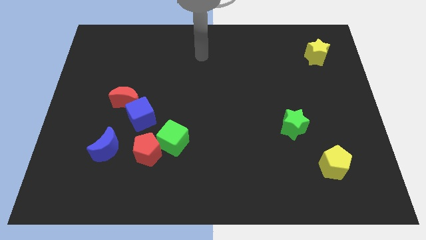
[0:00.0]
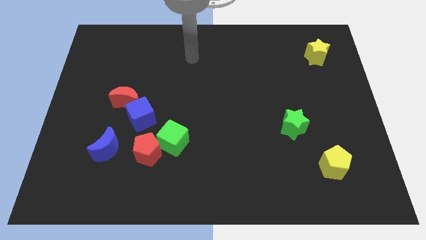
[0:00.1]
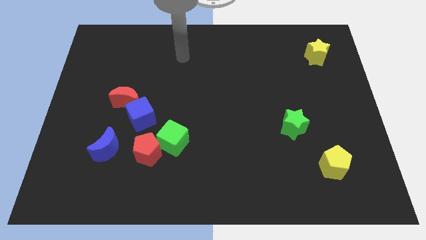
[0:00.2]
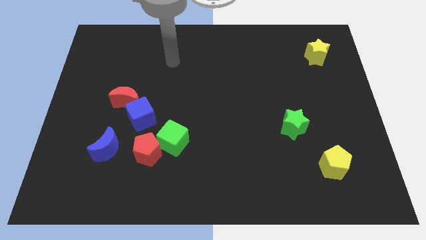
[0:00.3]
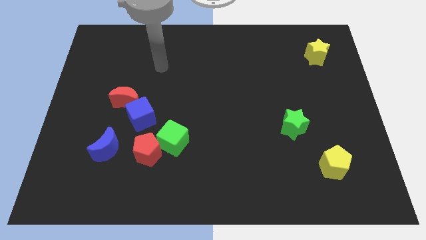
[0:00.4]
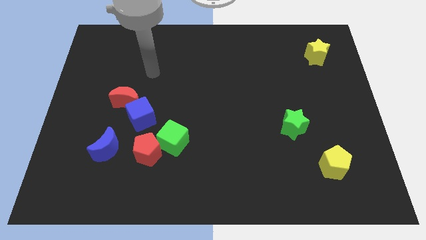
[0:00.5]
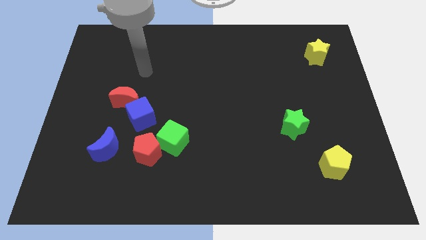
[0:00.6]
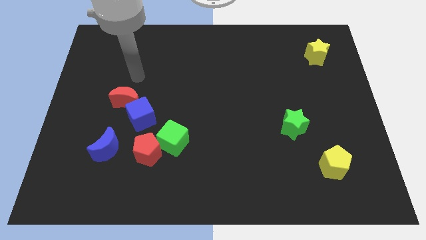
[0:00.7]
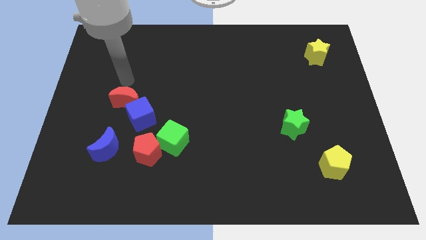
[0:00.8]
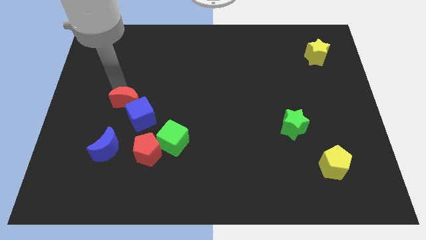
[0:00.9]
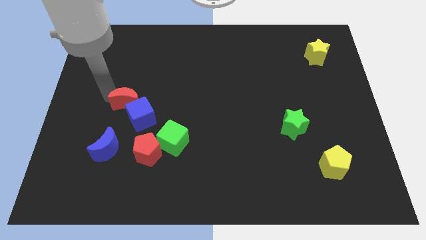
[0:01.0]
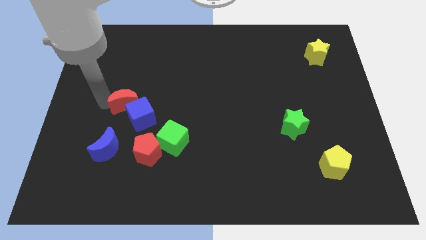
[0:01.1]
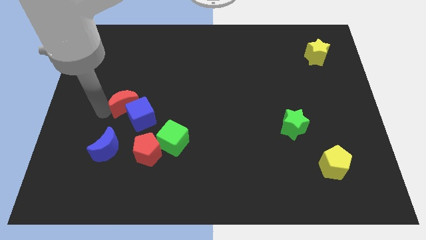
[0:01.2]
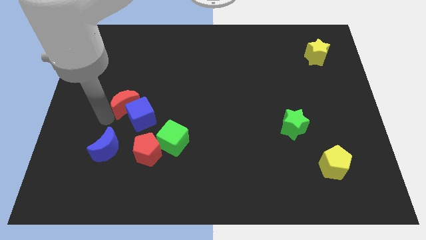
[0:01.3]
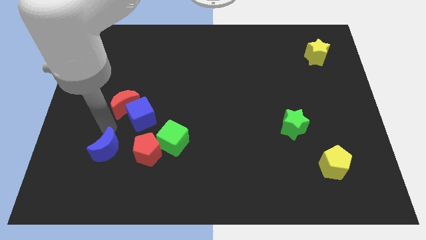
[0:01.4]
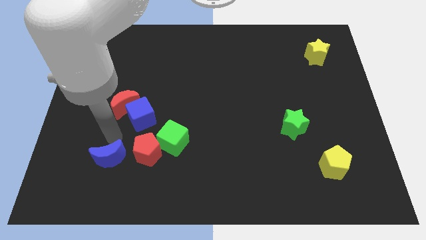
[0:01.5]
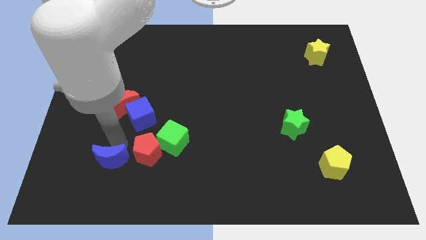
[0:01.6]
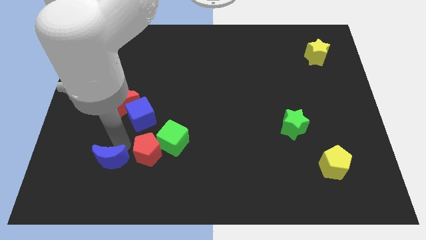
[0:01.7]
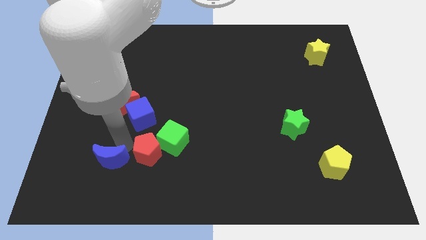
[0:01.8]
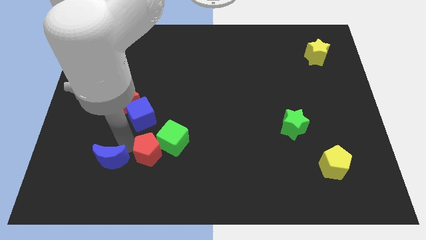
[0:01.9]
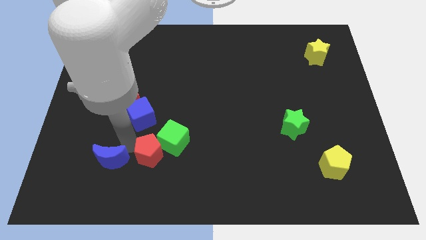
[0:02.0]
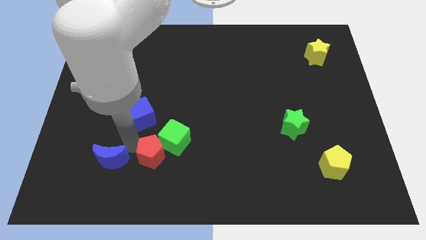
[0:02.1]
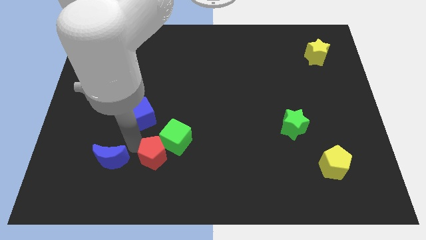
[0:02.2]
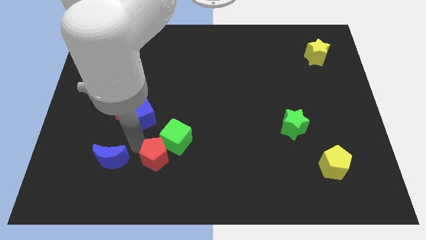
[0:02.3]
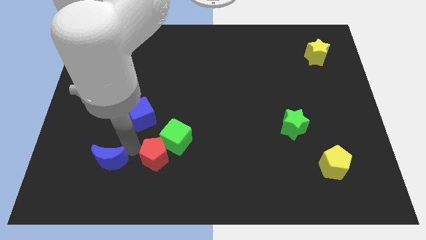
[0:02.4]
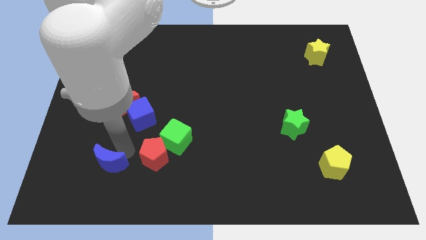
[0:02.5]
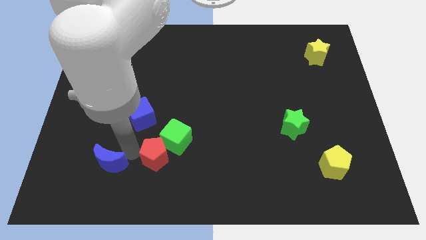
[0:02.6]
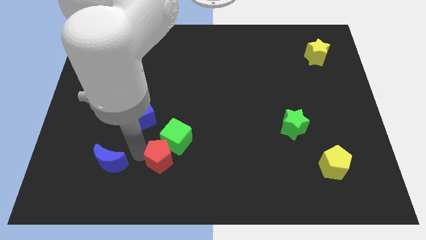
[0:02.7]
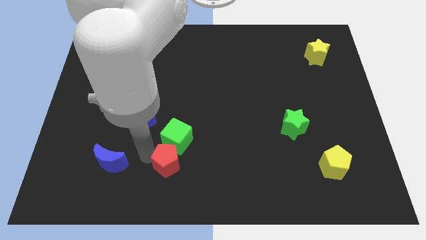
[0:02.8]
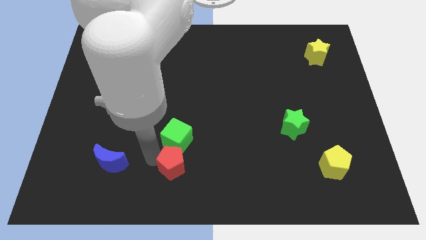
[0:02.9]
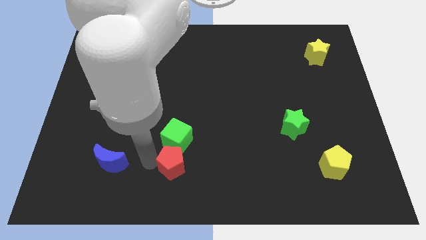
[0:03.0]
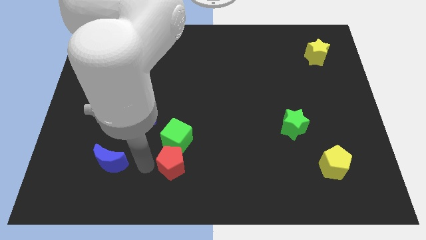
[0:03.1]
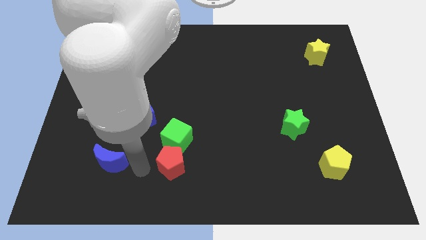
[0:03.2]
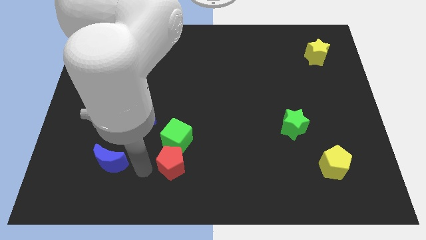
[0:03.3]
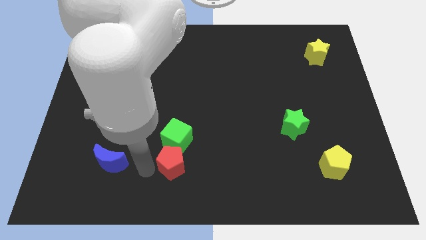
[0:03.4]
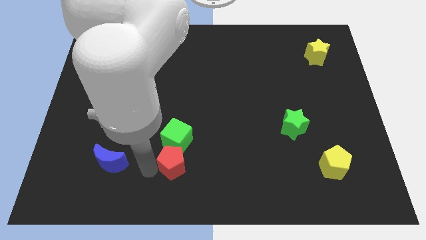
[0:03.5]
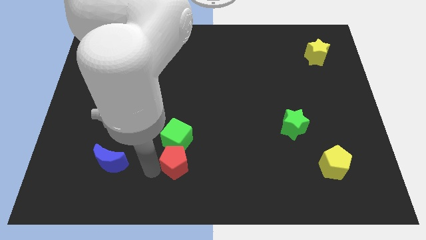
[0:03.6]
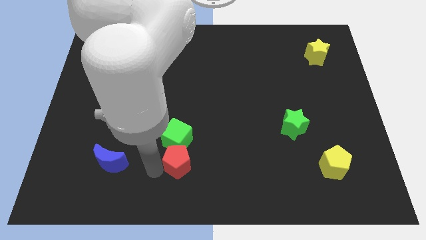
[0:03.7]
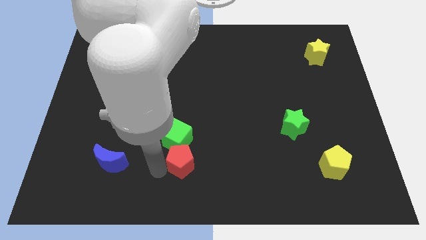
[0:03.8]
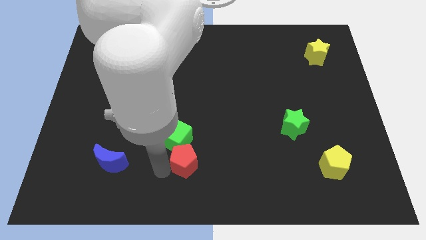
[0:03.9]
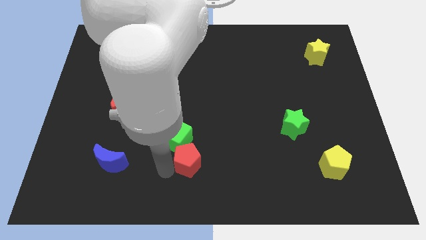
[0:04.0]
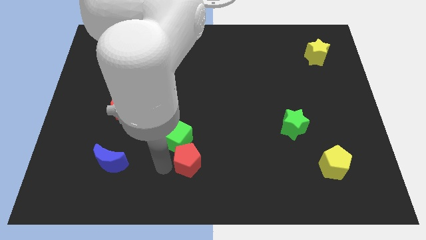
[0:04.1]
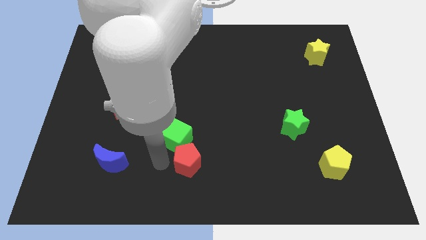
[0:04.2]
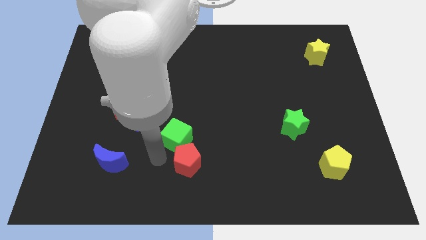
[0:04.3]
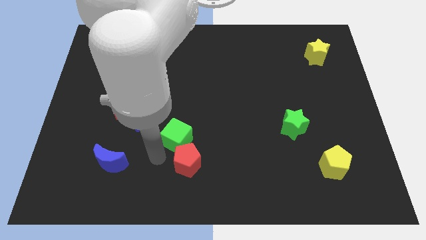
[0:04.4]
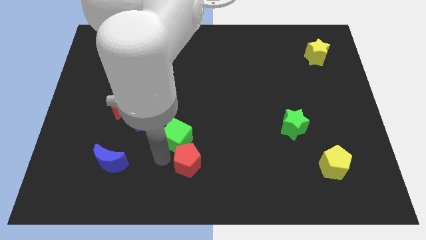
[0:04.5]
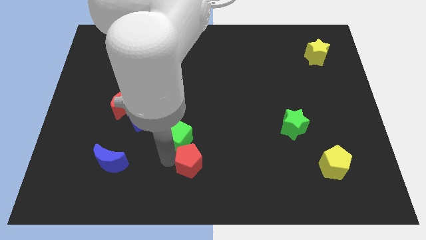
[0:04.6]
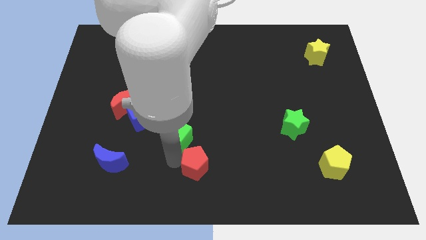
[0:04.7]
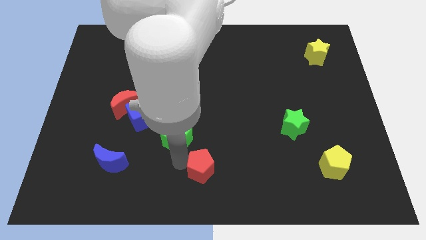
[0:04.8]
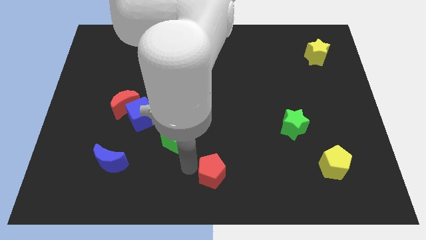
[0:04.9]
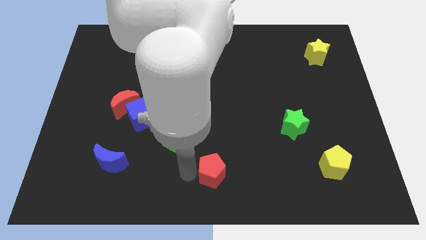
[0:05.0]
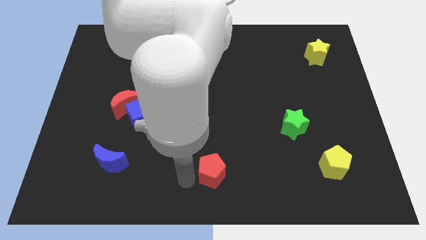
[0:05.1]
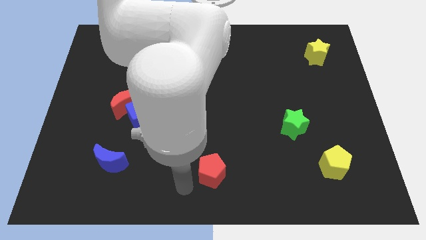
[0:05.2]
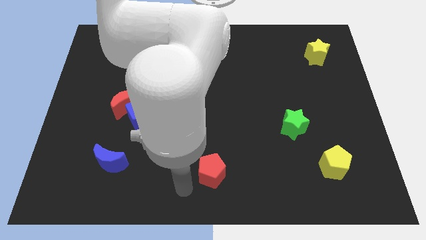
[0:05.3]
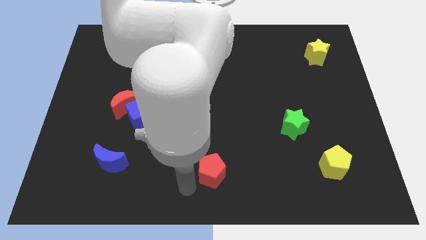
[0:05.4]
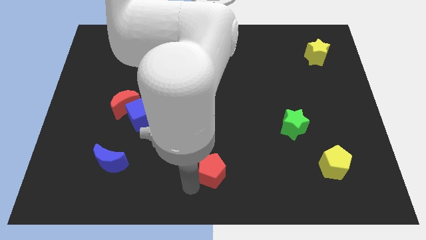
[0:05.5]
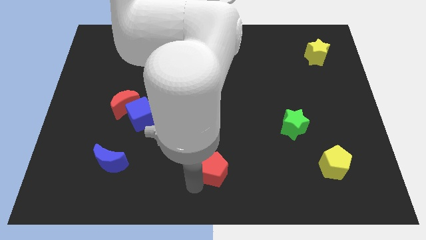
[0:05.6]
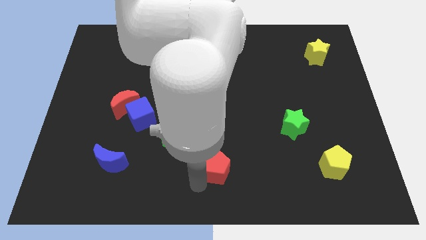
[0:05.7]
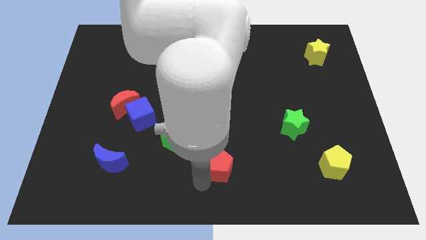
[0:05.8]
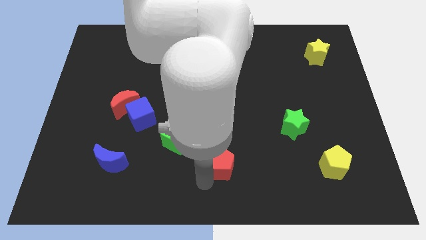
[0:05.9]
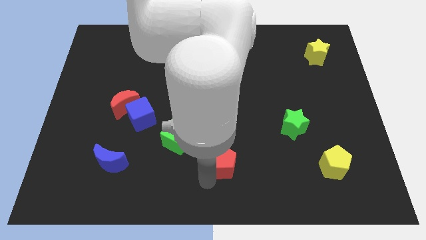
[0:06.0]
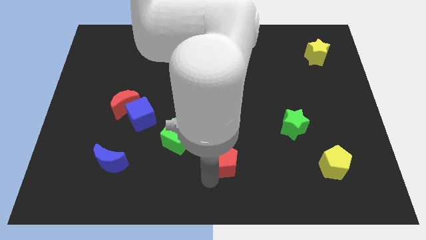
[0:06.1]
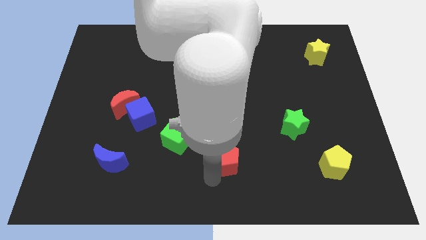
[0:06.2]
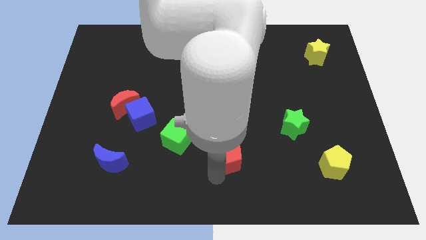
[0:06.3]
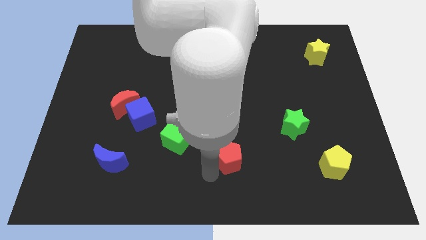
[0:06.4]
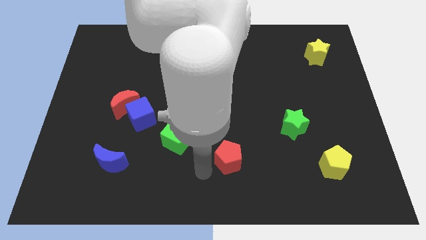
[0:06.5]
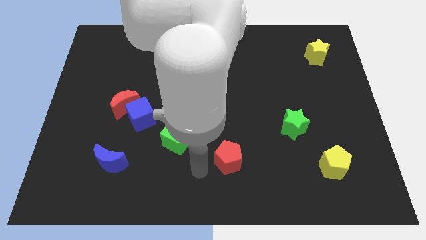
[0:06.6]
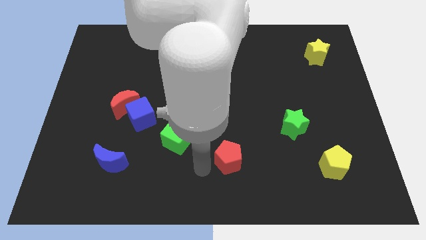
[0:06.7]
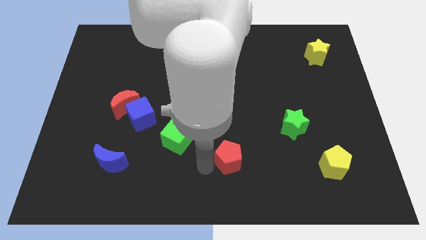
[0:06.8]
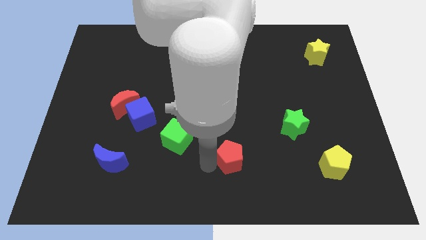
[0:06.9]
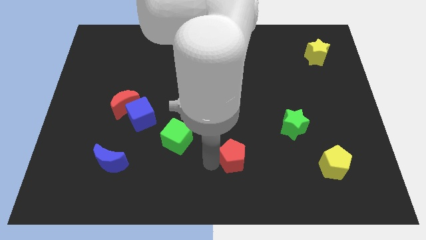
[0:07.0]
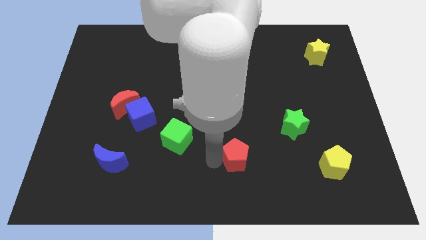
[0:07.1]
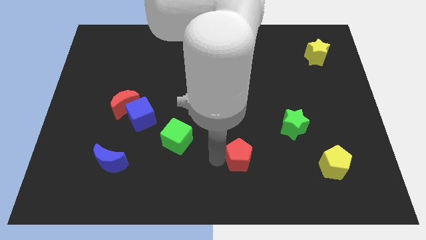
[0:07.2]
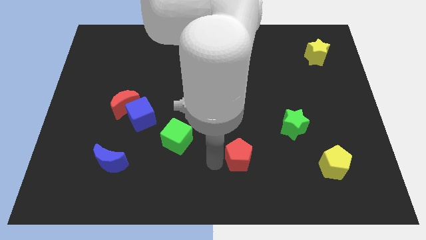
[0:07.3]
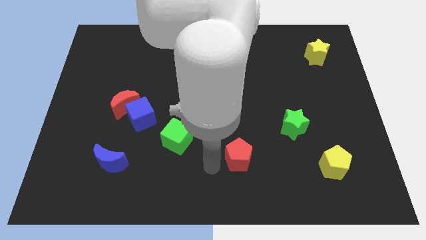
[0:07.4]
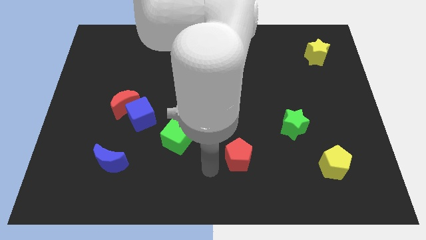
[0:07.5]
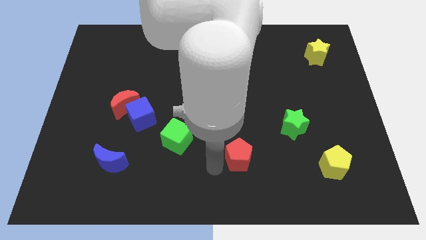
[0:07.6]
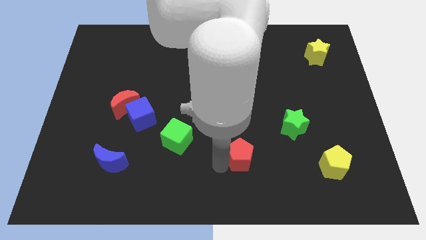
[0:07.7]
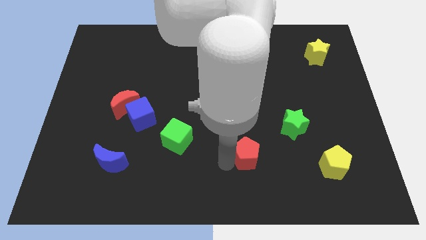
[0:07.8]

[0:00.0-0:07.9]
slide the red pentagon to the right

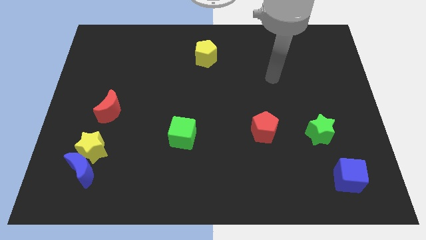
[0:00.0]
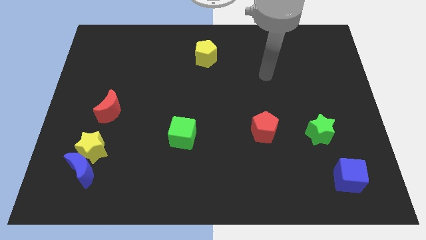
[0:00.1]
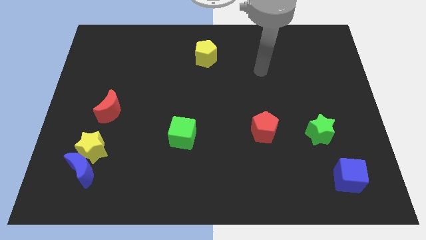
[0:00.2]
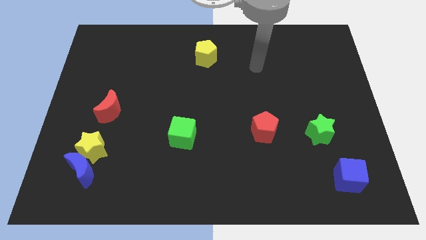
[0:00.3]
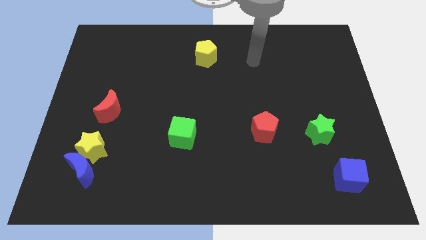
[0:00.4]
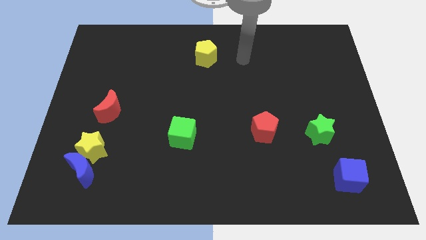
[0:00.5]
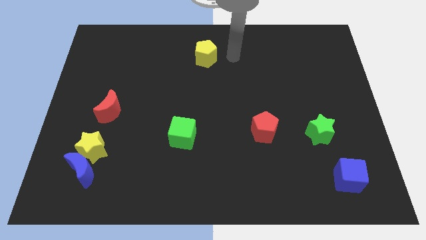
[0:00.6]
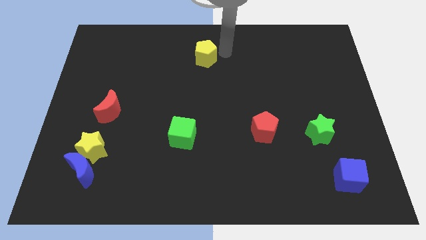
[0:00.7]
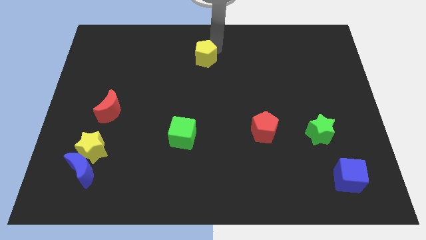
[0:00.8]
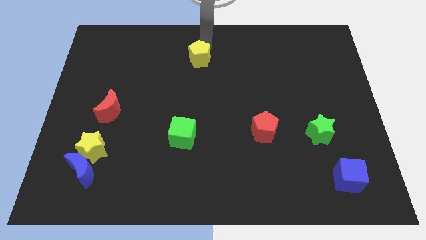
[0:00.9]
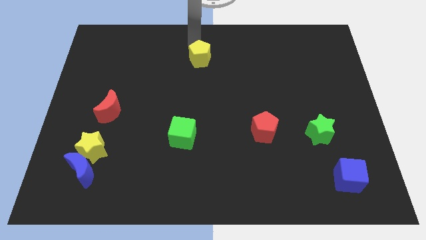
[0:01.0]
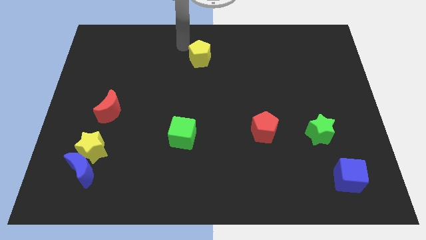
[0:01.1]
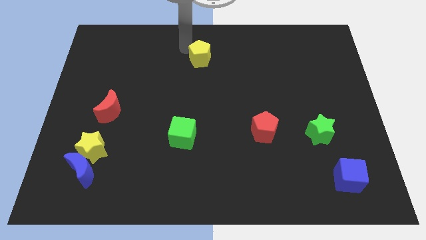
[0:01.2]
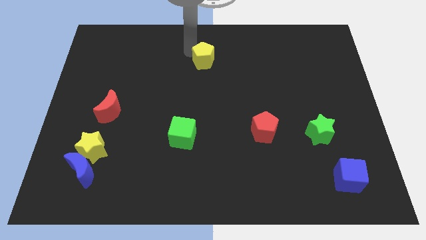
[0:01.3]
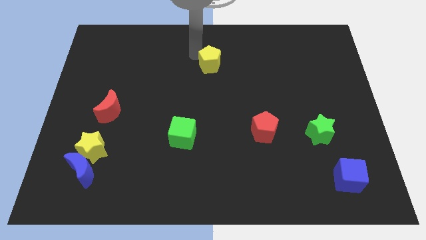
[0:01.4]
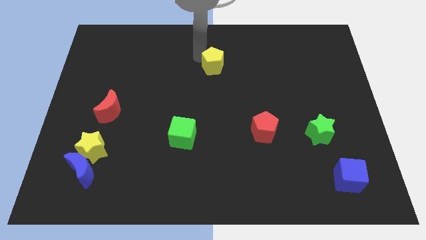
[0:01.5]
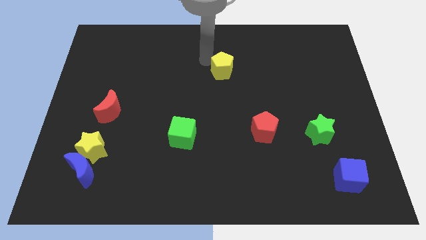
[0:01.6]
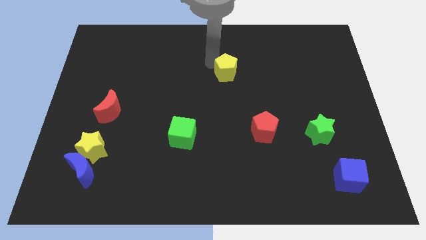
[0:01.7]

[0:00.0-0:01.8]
slide the yellow pentagon somewhat diagonally down and right
